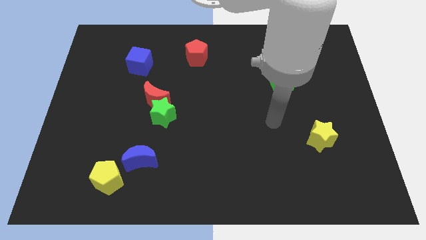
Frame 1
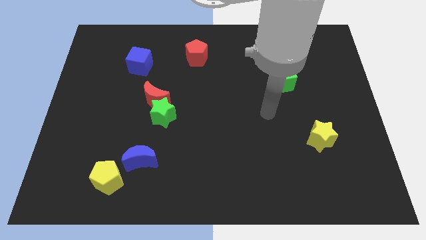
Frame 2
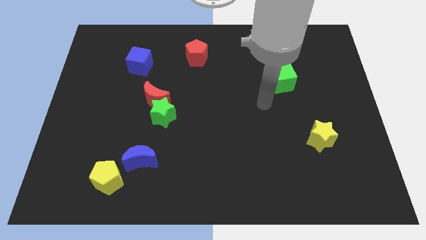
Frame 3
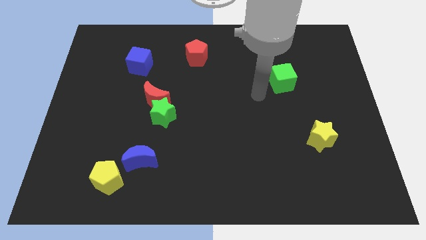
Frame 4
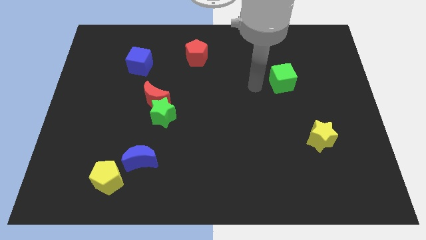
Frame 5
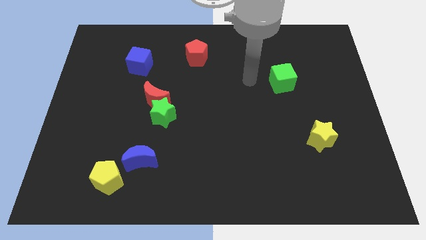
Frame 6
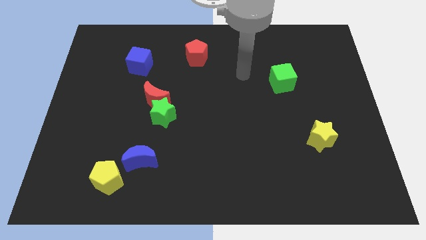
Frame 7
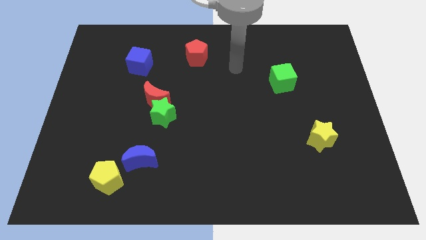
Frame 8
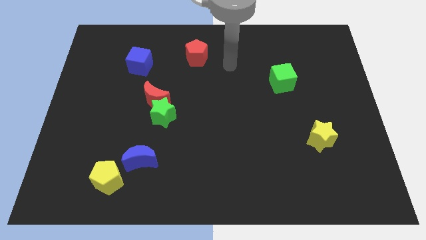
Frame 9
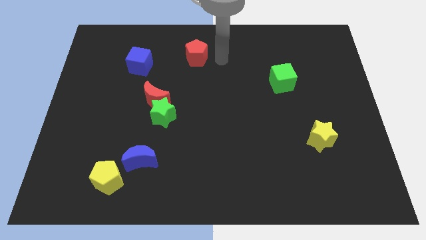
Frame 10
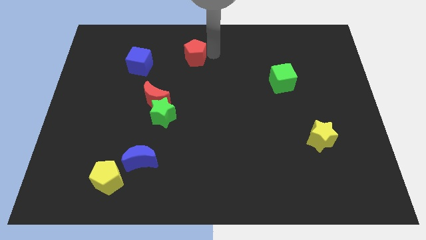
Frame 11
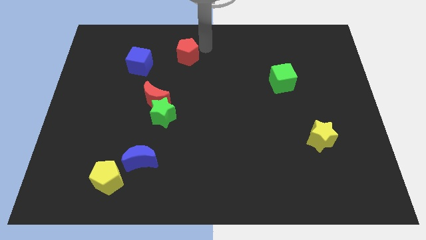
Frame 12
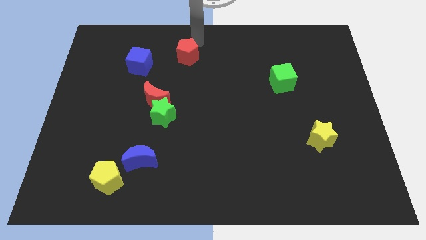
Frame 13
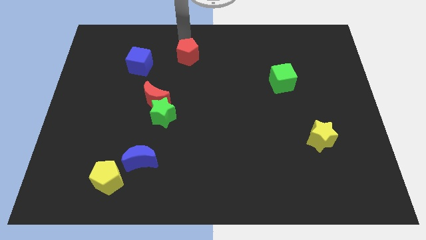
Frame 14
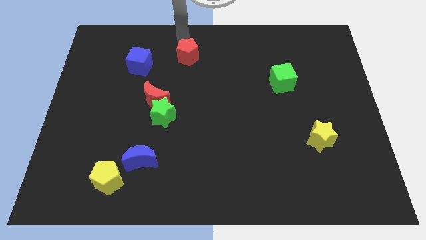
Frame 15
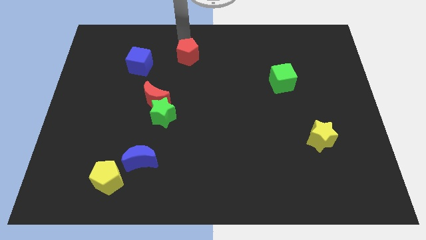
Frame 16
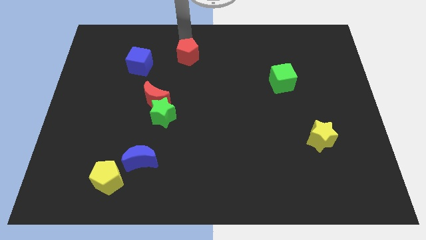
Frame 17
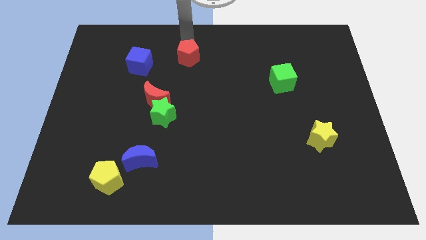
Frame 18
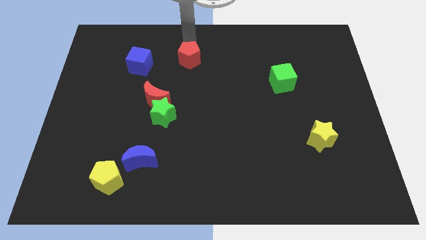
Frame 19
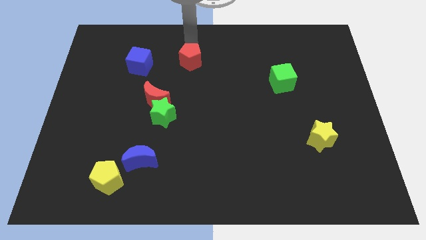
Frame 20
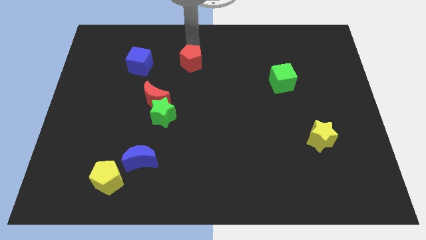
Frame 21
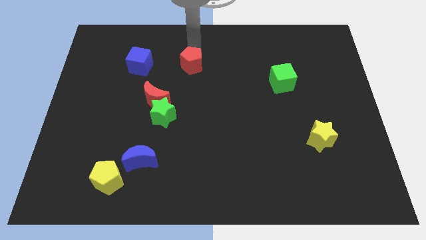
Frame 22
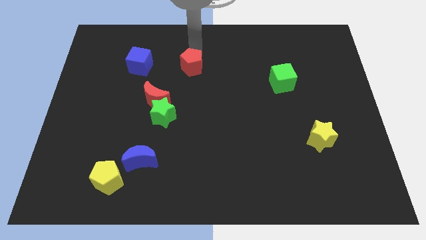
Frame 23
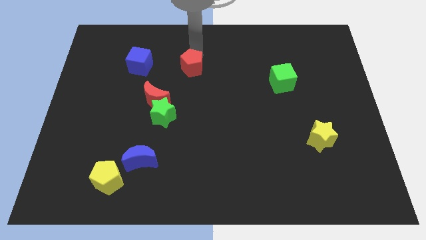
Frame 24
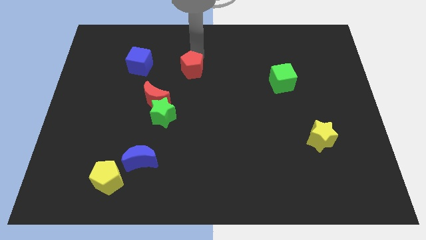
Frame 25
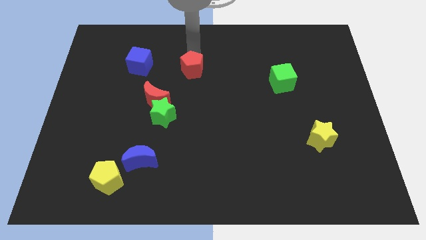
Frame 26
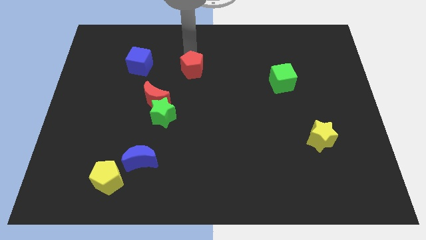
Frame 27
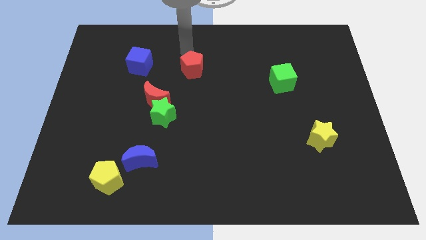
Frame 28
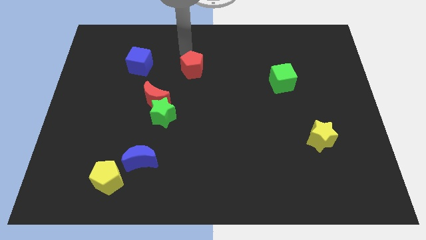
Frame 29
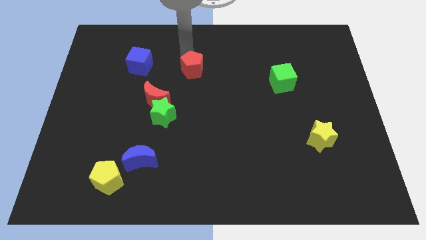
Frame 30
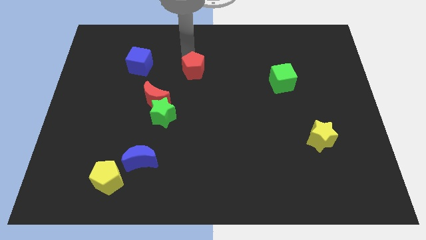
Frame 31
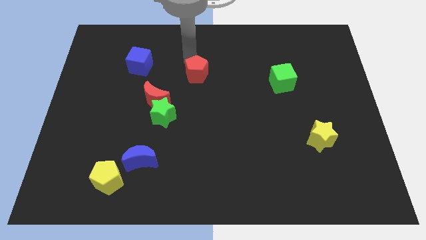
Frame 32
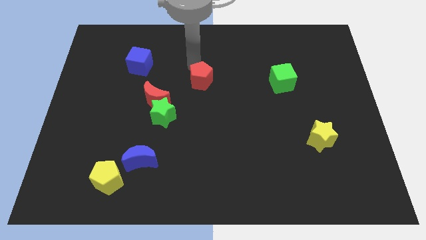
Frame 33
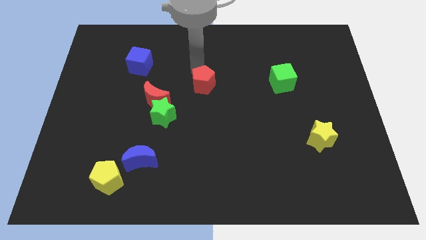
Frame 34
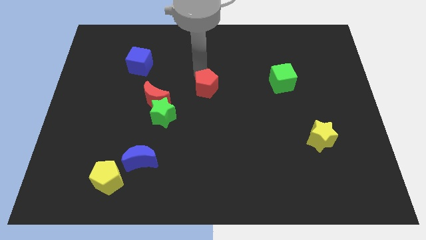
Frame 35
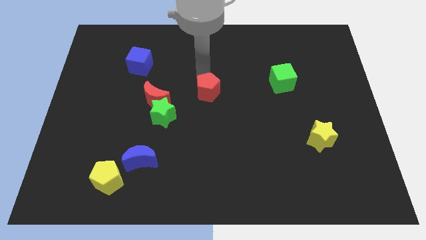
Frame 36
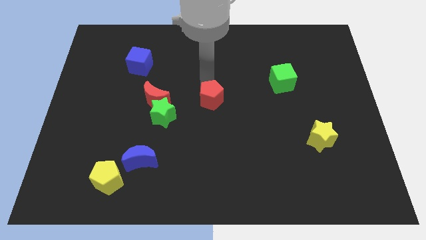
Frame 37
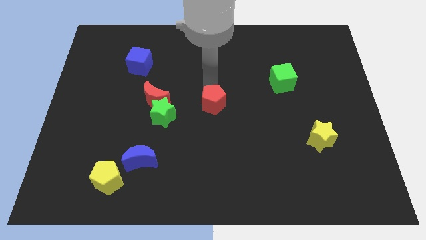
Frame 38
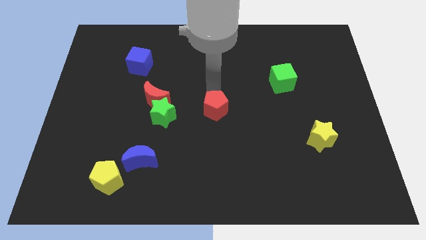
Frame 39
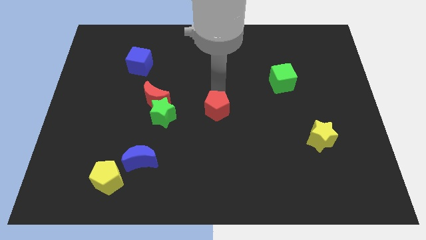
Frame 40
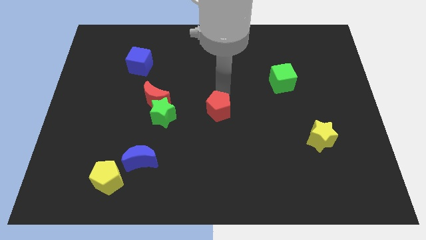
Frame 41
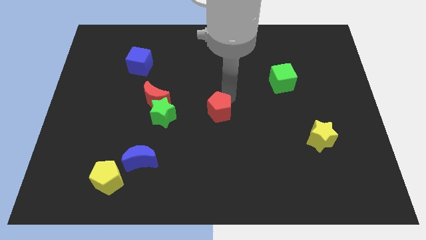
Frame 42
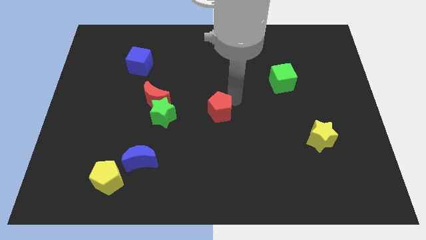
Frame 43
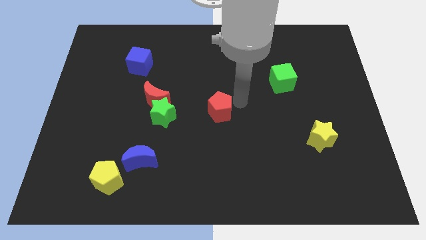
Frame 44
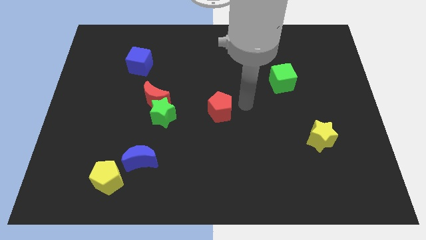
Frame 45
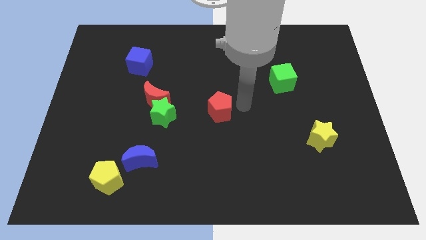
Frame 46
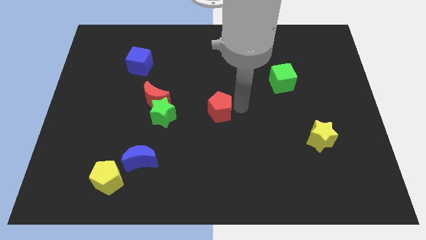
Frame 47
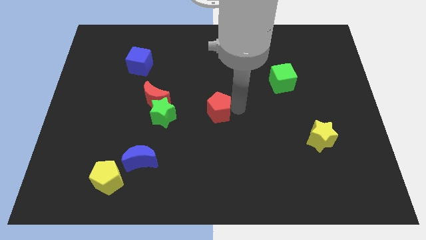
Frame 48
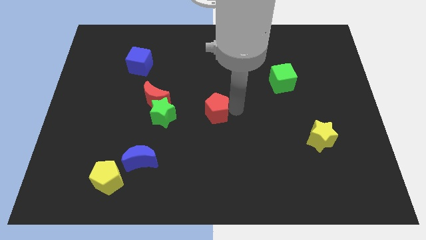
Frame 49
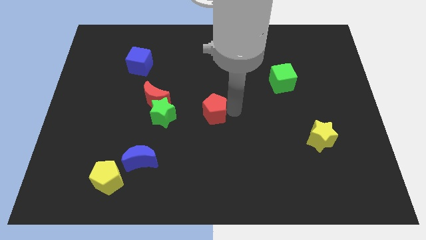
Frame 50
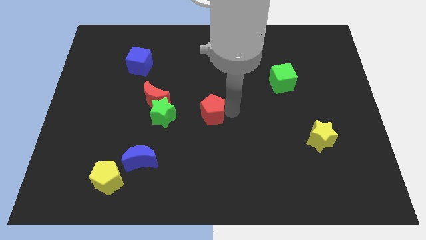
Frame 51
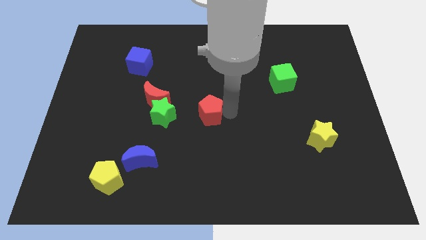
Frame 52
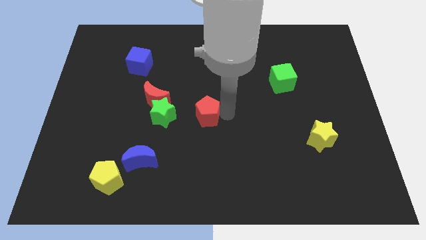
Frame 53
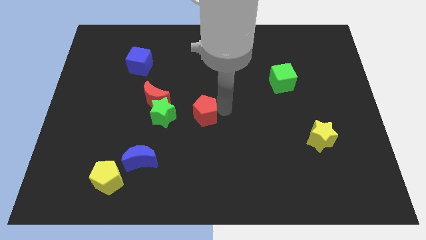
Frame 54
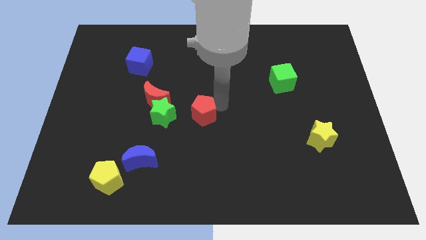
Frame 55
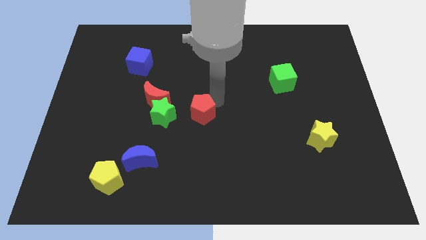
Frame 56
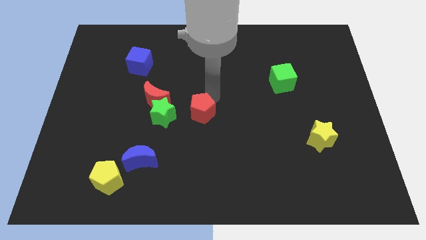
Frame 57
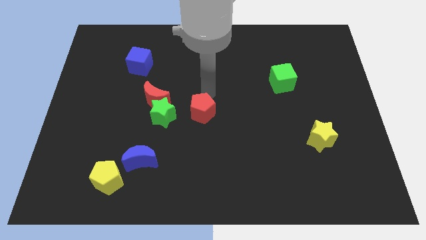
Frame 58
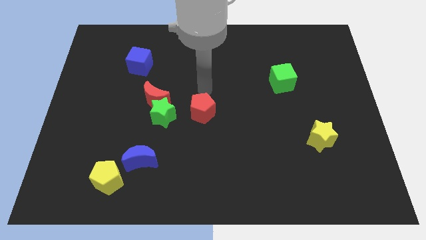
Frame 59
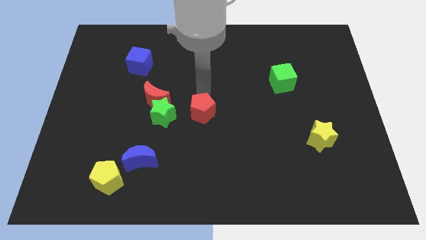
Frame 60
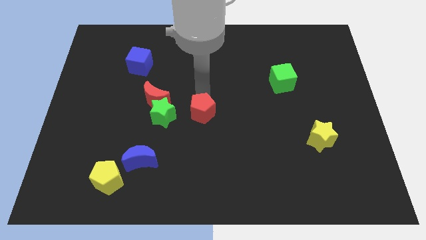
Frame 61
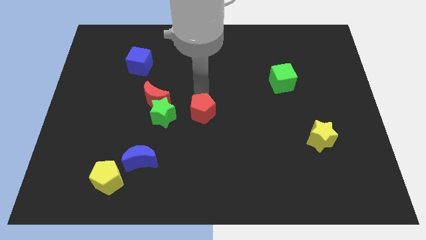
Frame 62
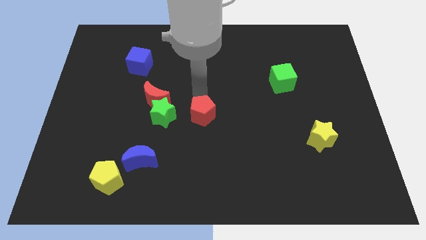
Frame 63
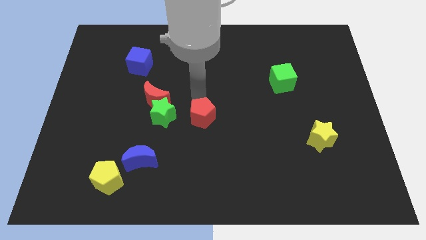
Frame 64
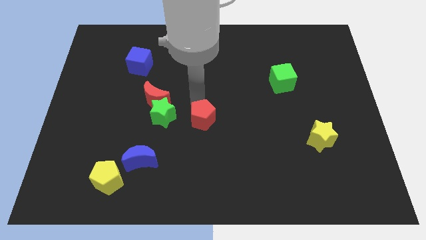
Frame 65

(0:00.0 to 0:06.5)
slide the red pentagon downwards

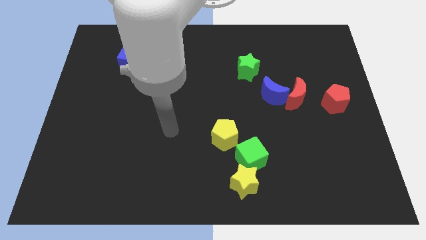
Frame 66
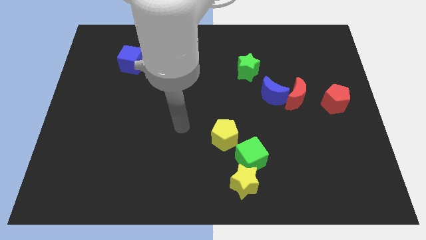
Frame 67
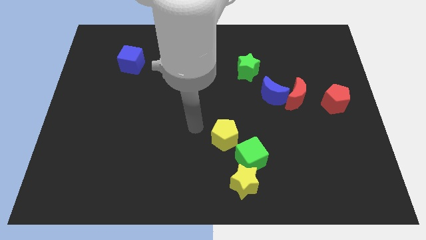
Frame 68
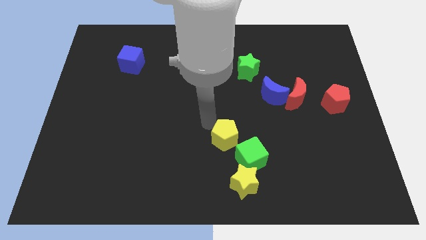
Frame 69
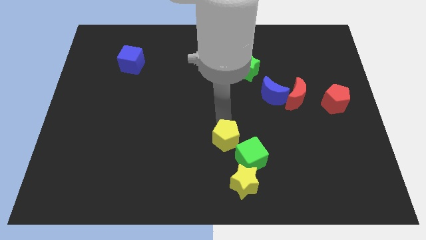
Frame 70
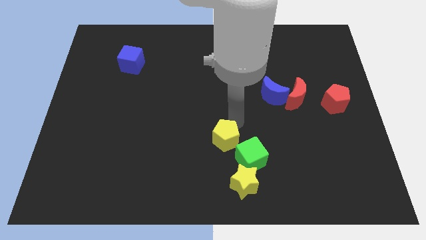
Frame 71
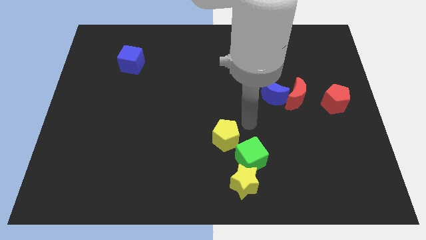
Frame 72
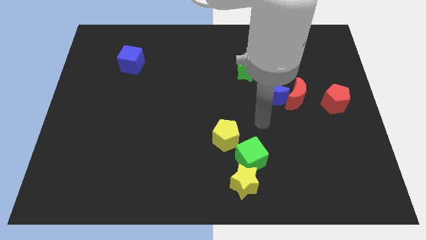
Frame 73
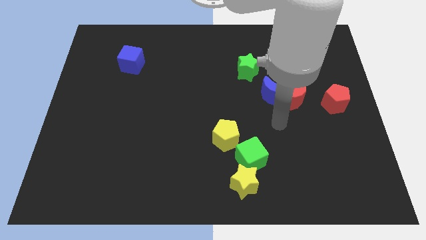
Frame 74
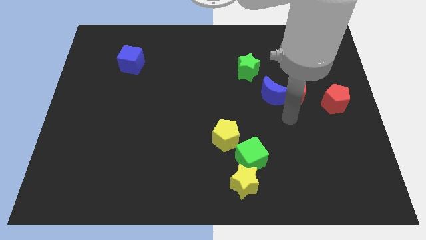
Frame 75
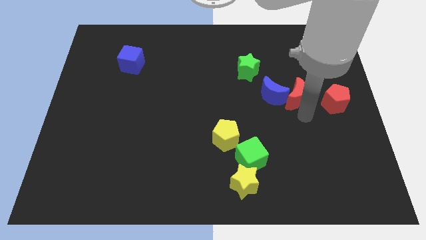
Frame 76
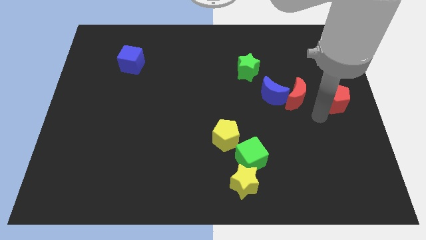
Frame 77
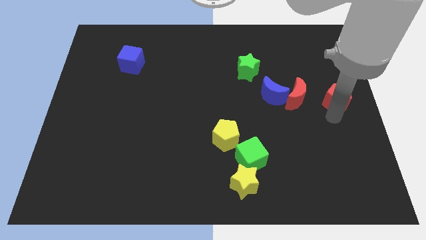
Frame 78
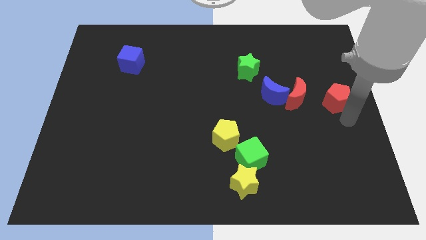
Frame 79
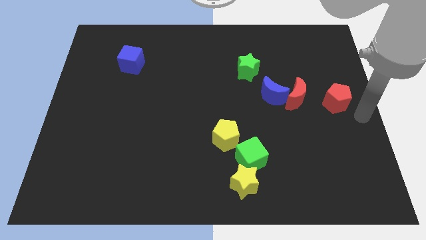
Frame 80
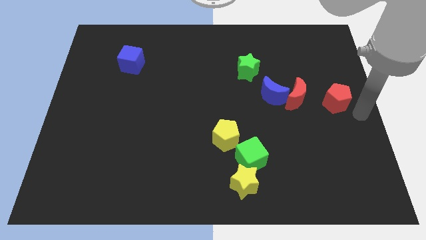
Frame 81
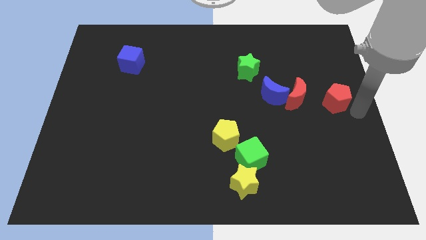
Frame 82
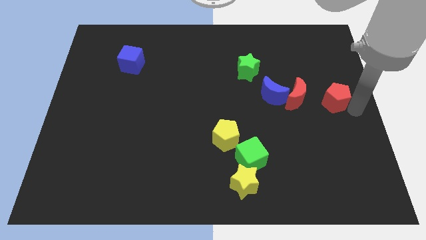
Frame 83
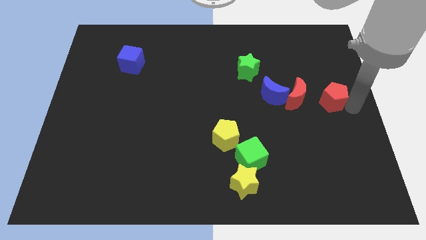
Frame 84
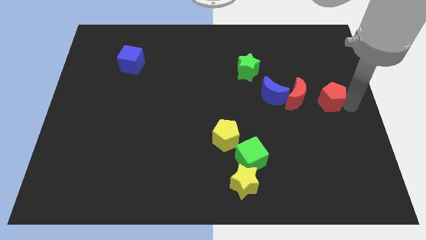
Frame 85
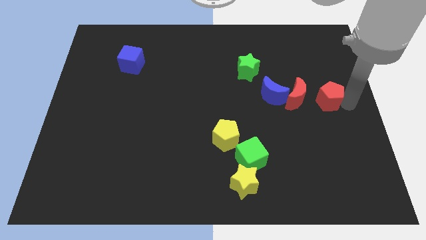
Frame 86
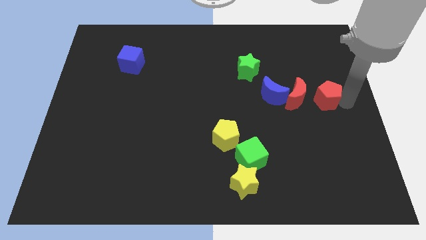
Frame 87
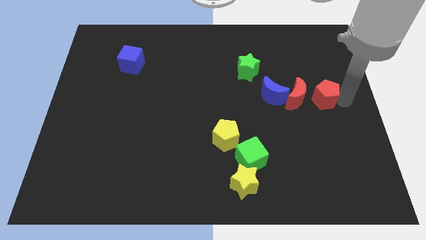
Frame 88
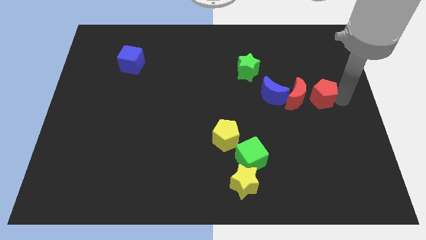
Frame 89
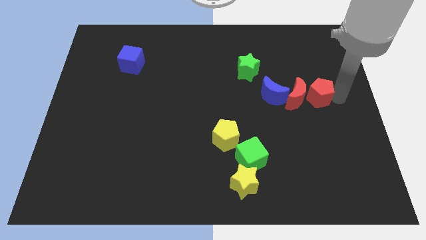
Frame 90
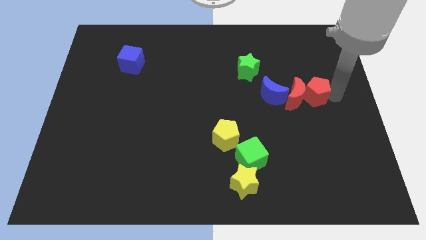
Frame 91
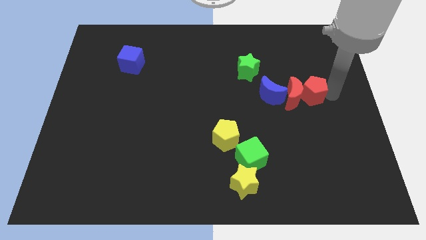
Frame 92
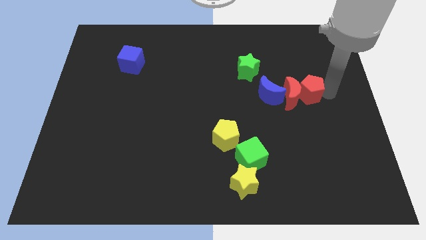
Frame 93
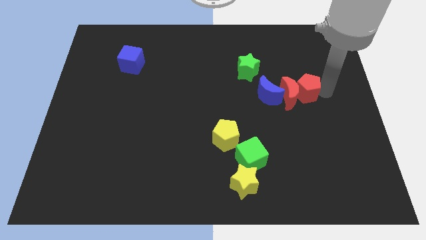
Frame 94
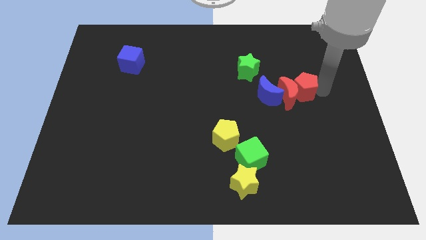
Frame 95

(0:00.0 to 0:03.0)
push the red pentagon diagonally up and left a little
